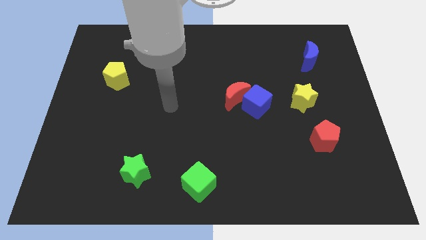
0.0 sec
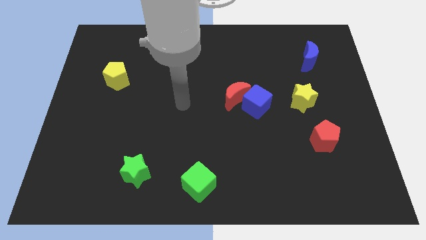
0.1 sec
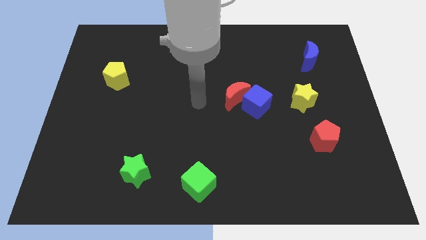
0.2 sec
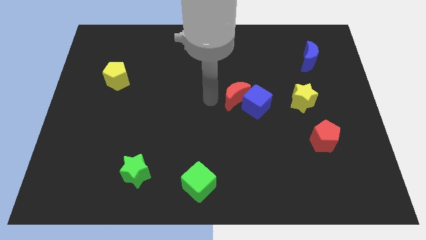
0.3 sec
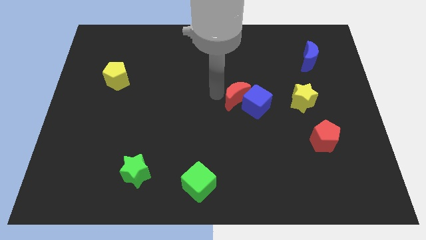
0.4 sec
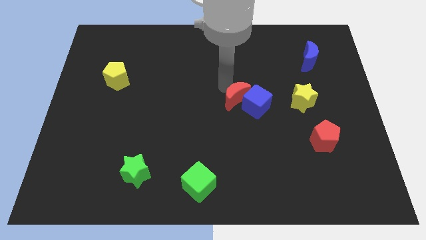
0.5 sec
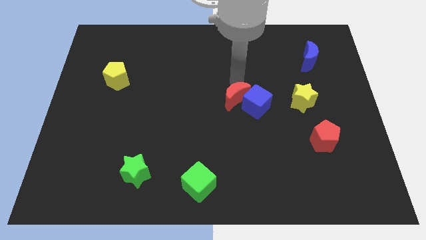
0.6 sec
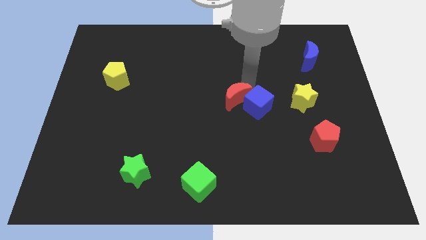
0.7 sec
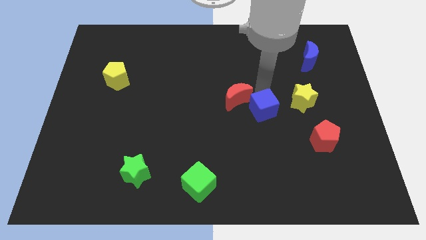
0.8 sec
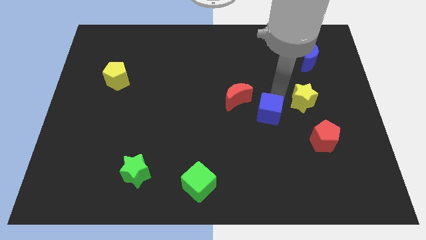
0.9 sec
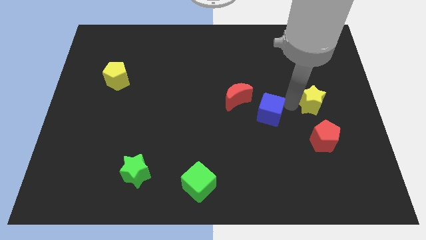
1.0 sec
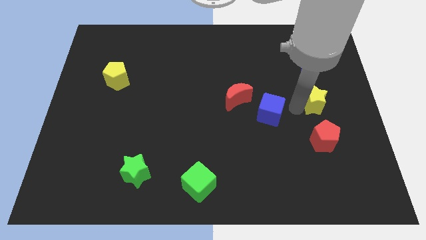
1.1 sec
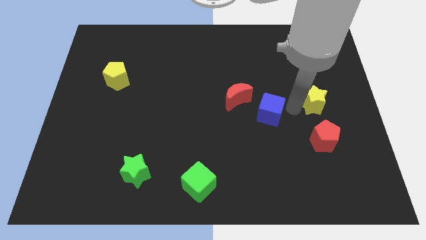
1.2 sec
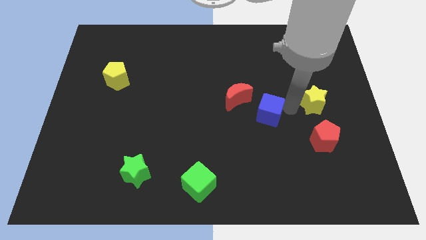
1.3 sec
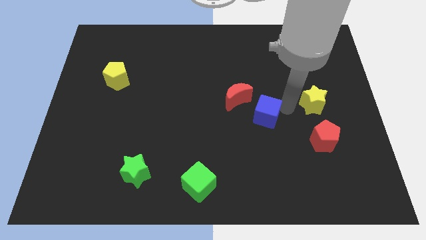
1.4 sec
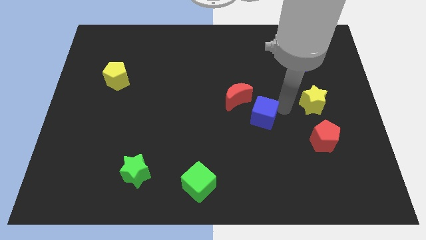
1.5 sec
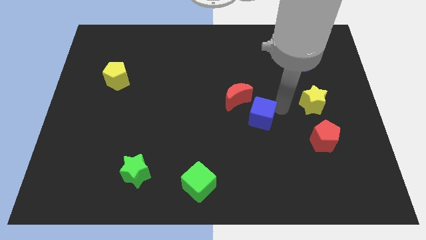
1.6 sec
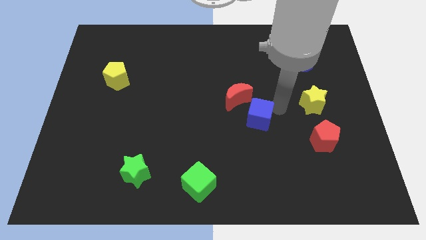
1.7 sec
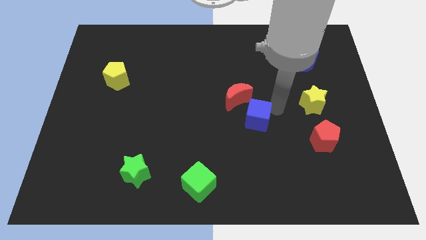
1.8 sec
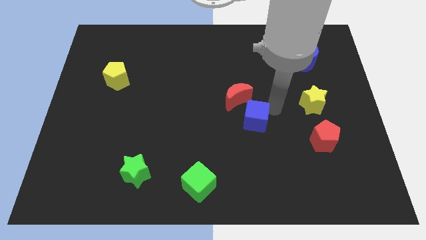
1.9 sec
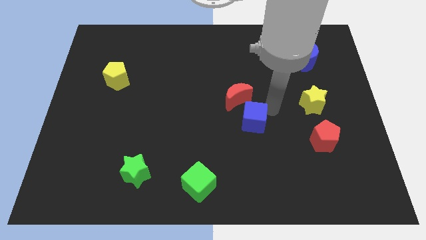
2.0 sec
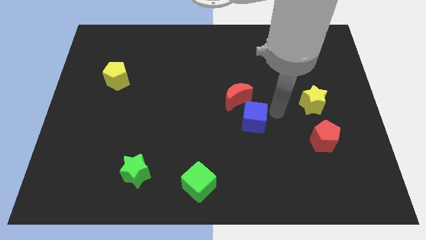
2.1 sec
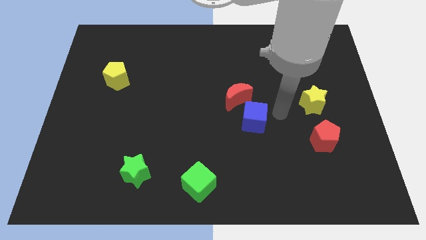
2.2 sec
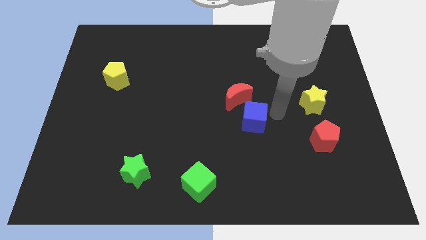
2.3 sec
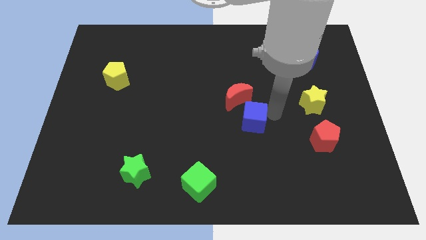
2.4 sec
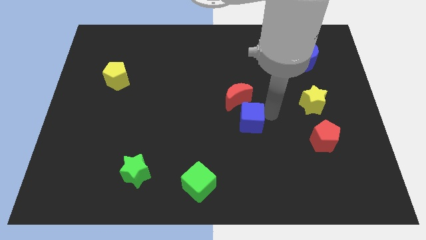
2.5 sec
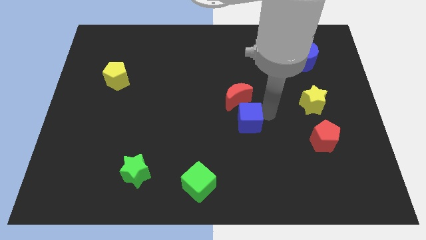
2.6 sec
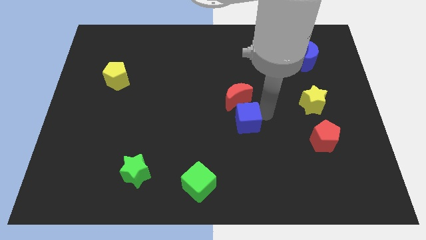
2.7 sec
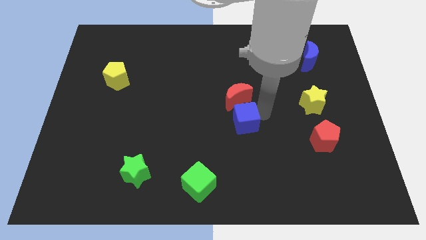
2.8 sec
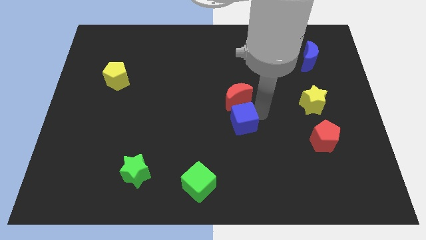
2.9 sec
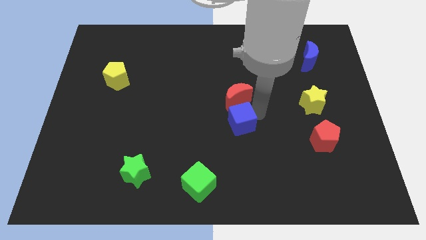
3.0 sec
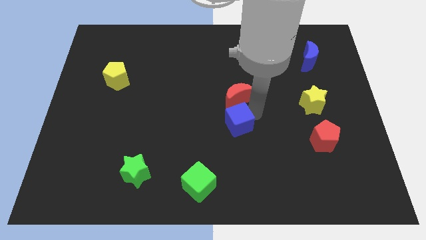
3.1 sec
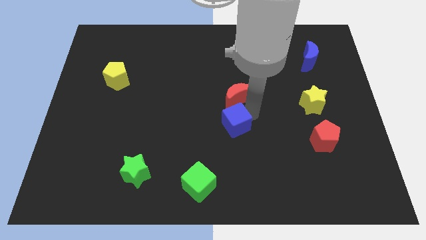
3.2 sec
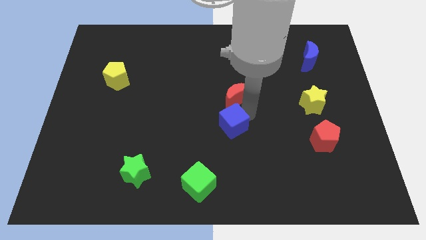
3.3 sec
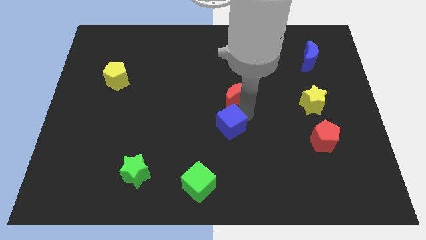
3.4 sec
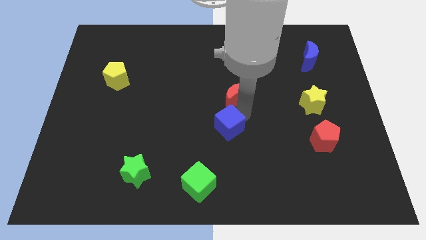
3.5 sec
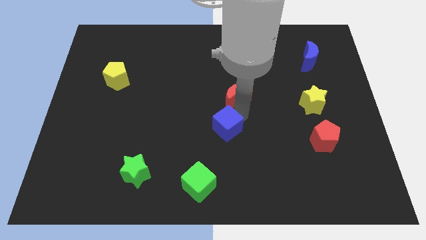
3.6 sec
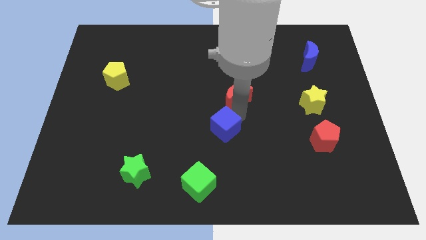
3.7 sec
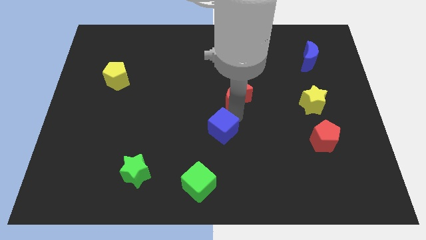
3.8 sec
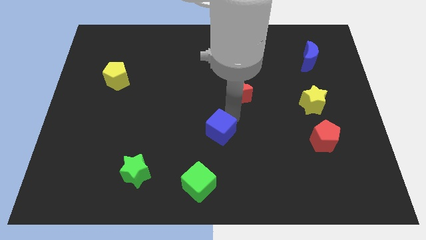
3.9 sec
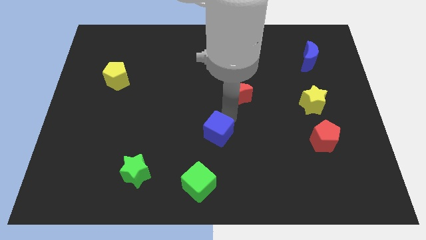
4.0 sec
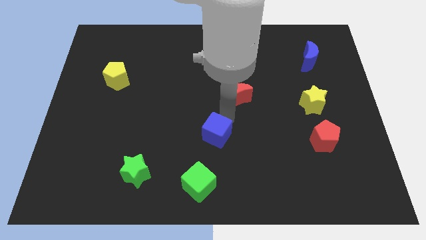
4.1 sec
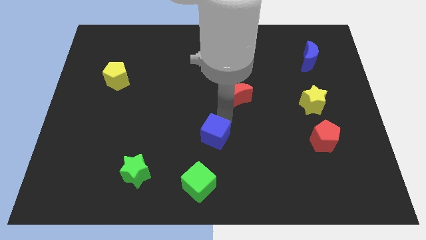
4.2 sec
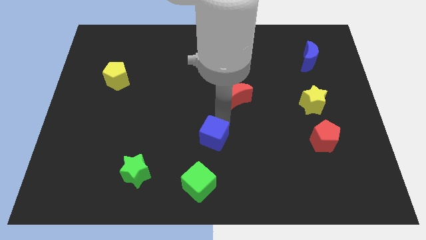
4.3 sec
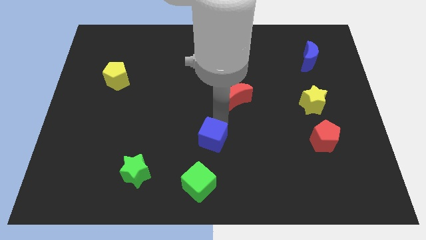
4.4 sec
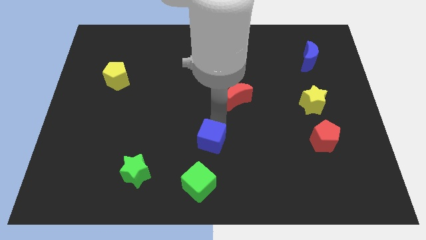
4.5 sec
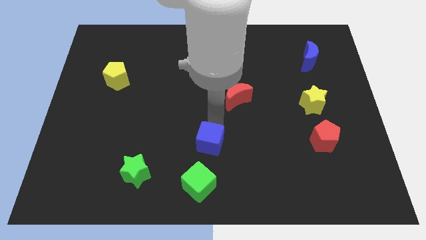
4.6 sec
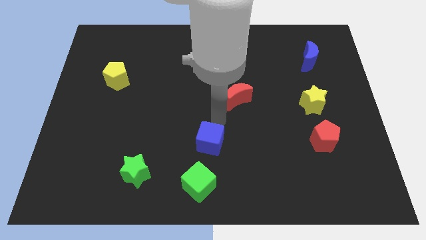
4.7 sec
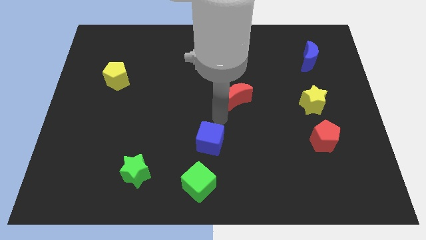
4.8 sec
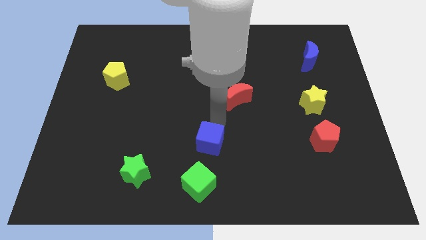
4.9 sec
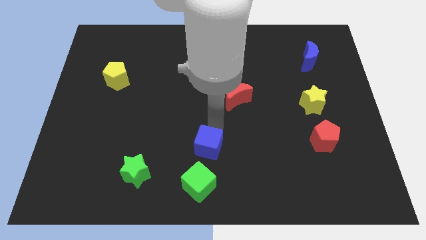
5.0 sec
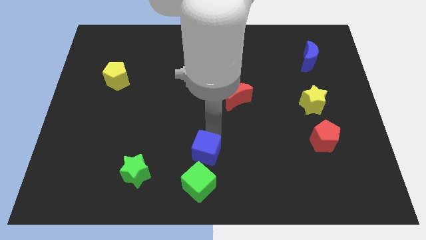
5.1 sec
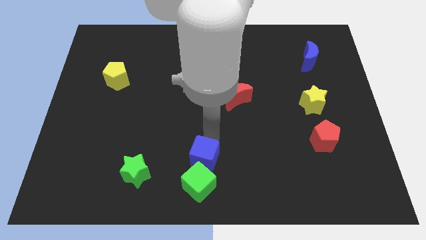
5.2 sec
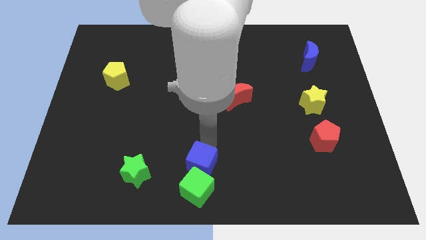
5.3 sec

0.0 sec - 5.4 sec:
slide the blue cube close to the green cube

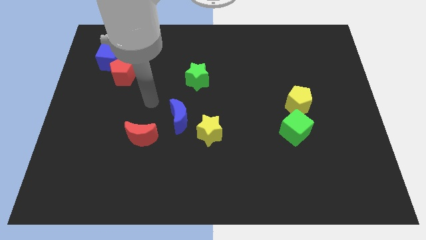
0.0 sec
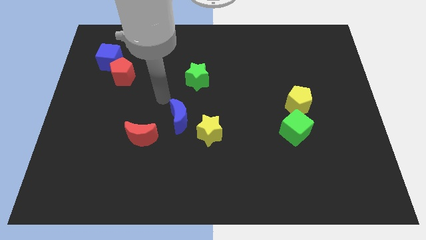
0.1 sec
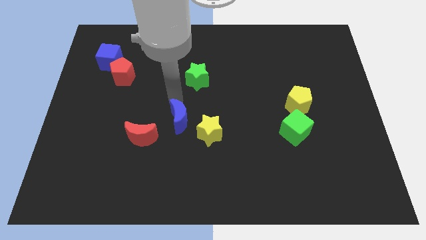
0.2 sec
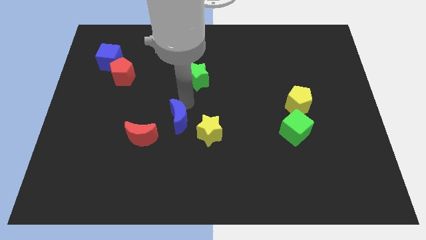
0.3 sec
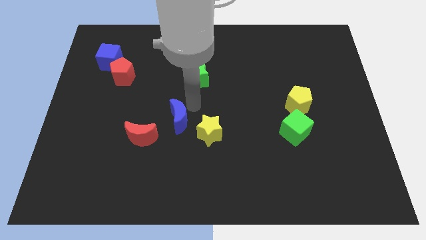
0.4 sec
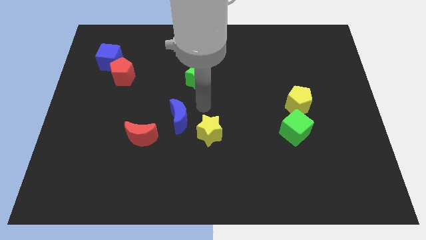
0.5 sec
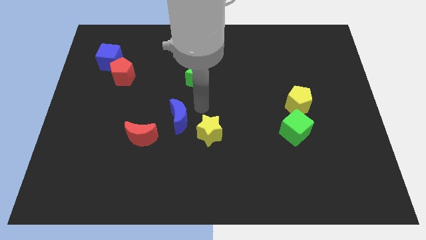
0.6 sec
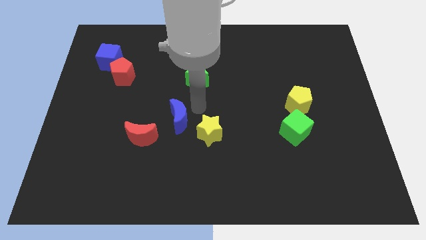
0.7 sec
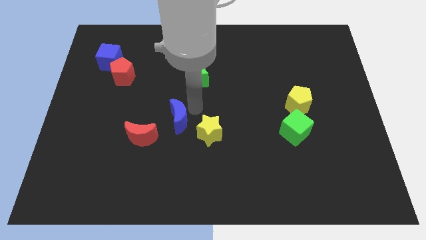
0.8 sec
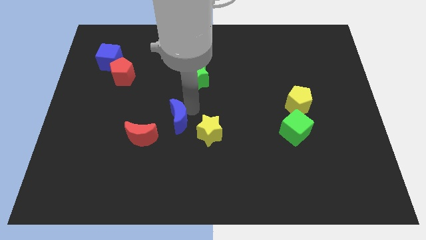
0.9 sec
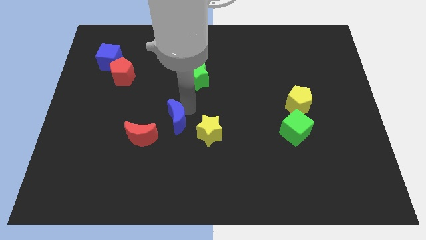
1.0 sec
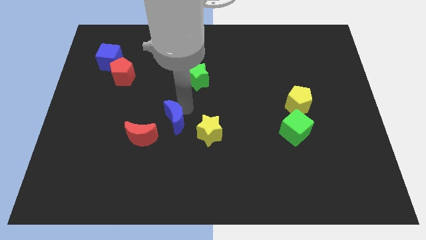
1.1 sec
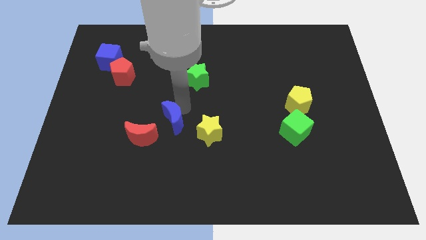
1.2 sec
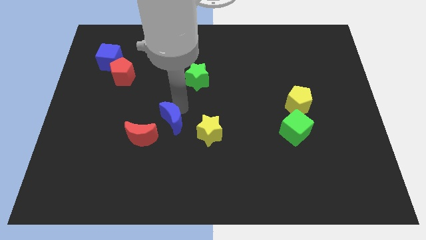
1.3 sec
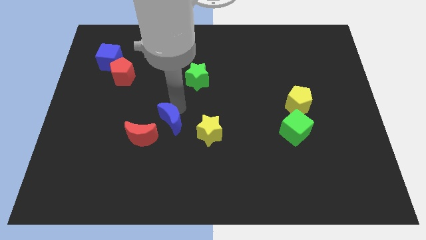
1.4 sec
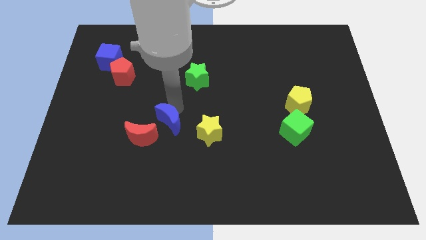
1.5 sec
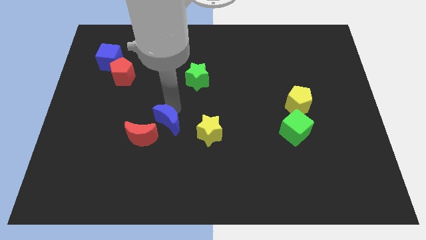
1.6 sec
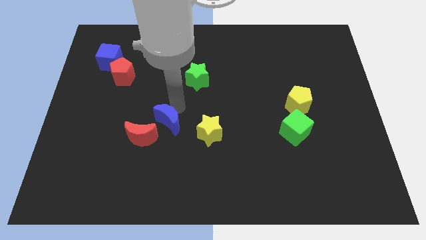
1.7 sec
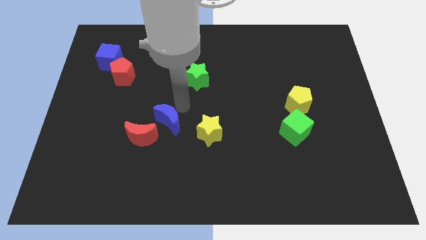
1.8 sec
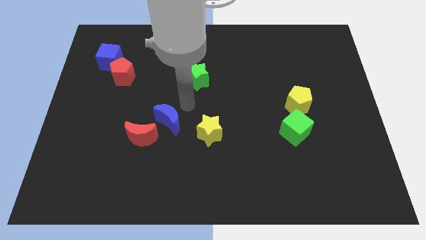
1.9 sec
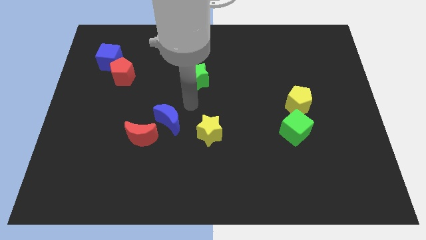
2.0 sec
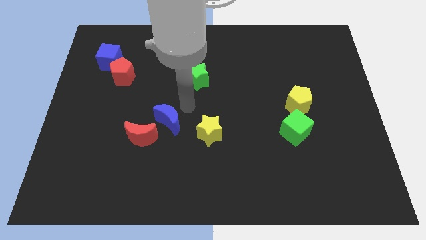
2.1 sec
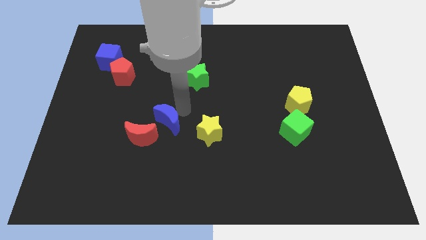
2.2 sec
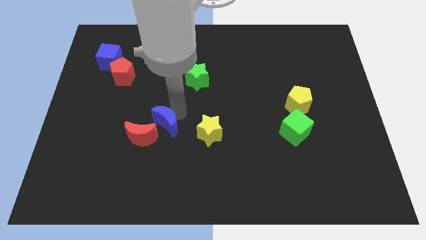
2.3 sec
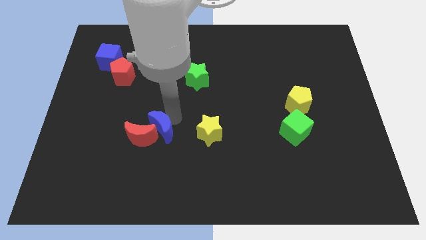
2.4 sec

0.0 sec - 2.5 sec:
slide the blue moon next to the red moon
